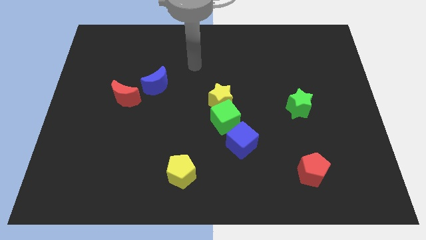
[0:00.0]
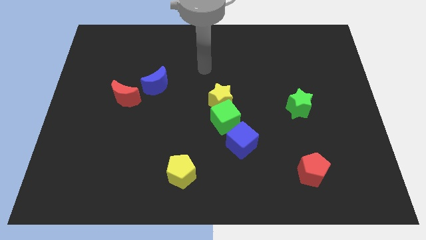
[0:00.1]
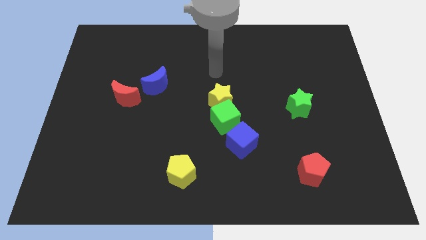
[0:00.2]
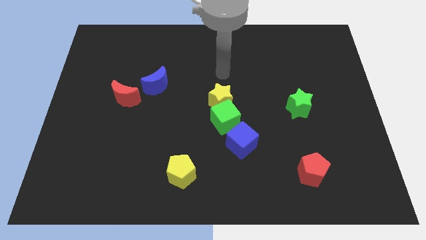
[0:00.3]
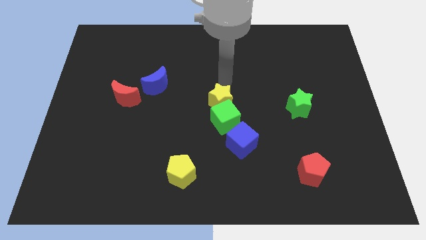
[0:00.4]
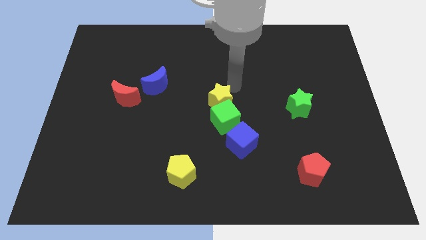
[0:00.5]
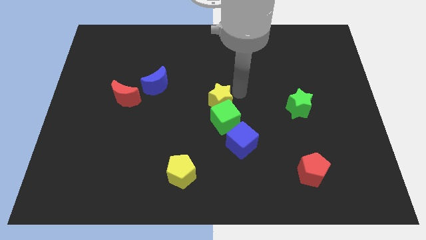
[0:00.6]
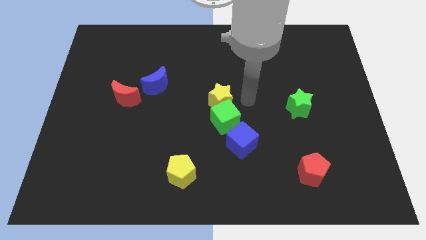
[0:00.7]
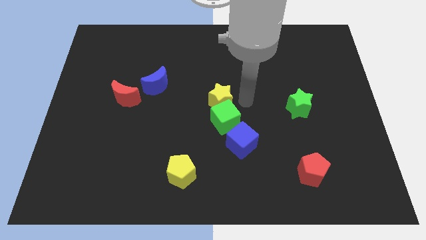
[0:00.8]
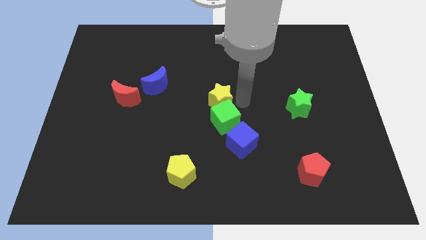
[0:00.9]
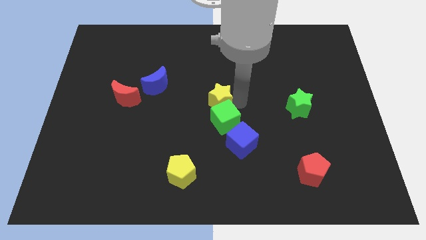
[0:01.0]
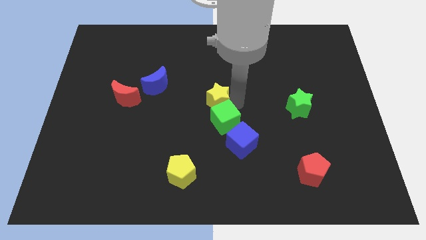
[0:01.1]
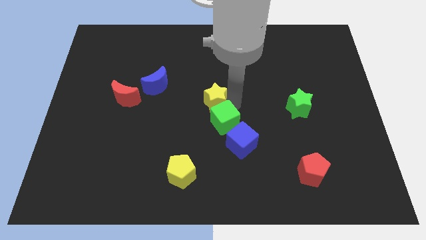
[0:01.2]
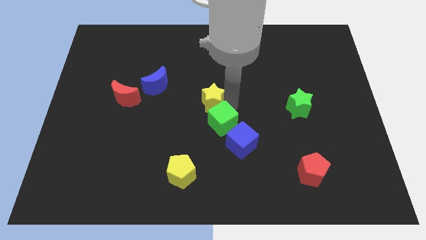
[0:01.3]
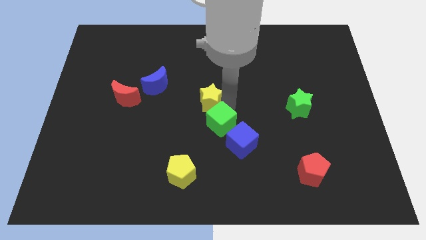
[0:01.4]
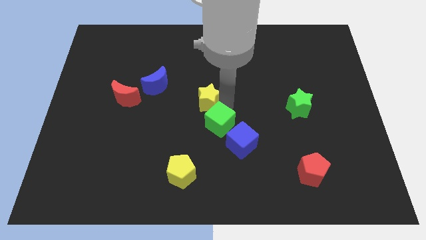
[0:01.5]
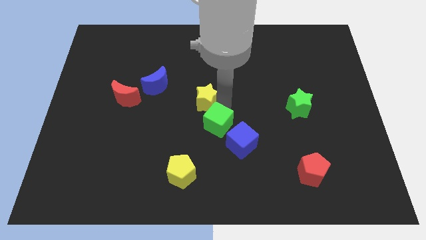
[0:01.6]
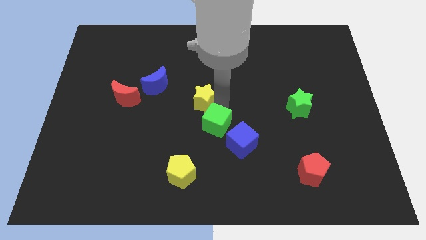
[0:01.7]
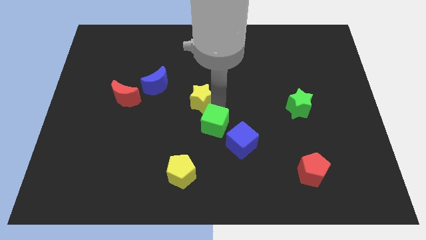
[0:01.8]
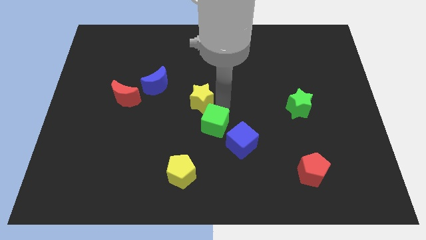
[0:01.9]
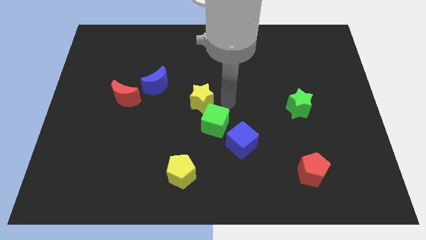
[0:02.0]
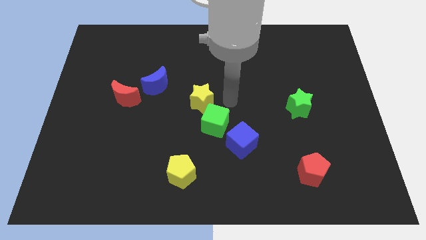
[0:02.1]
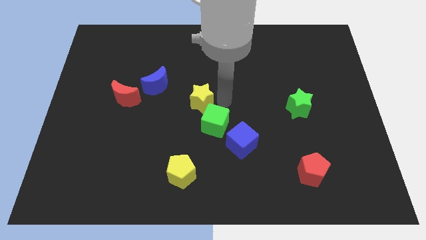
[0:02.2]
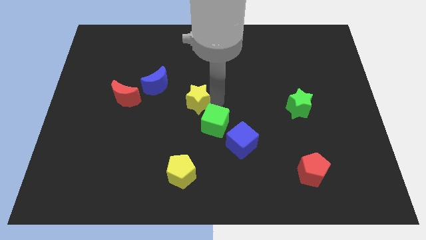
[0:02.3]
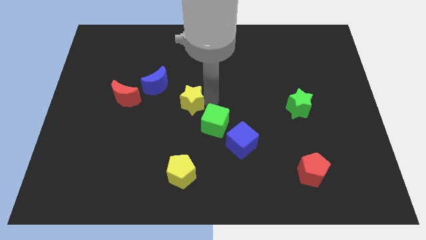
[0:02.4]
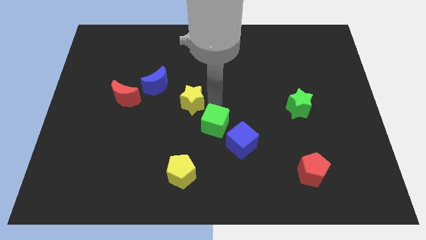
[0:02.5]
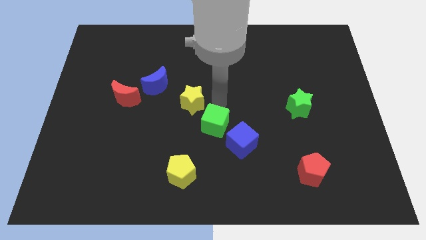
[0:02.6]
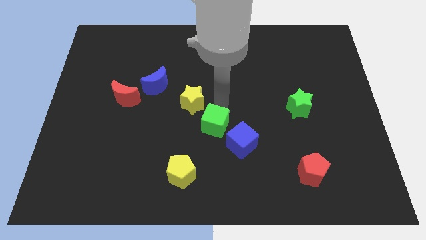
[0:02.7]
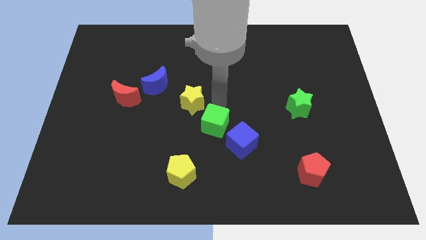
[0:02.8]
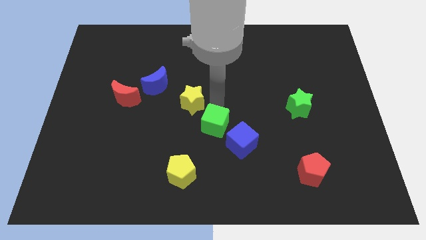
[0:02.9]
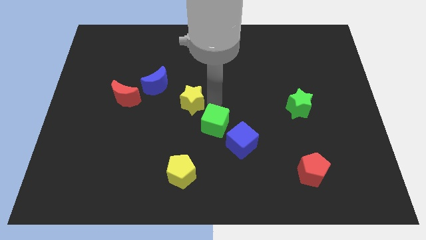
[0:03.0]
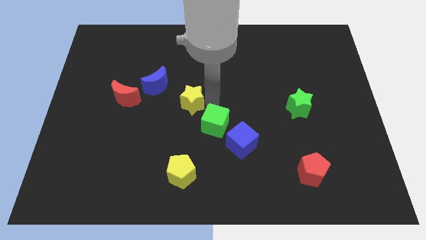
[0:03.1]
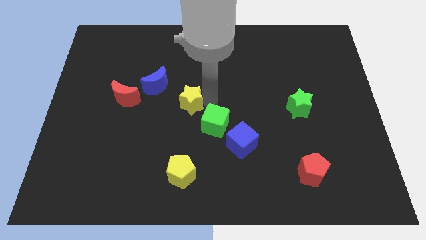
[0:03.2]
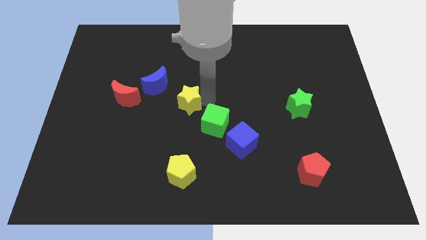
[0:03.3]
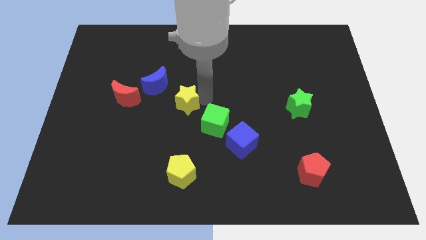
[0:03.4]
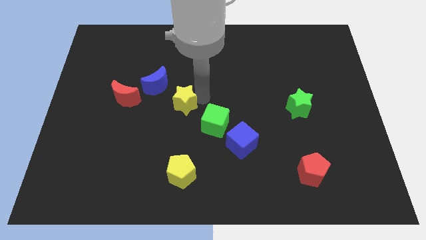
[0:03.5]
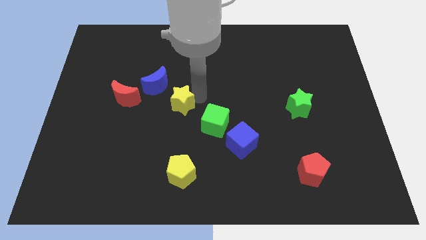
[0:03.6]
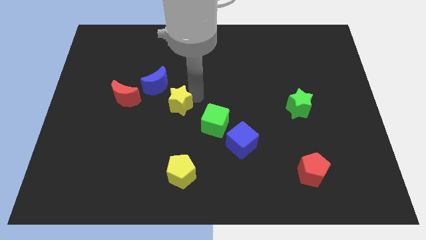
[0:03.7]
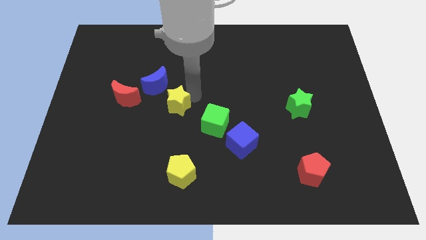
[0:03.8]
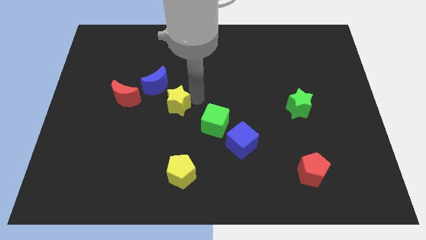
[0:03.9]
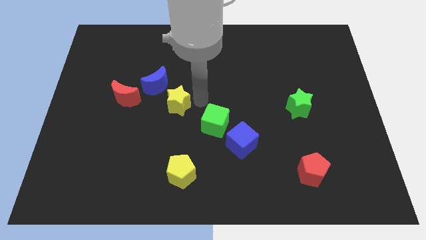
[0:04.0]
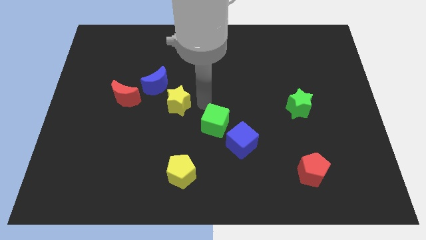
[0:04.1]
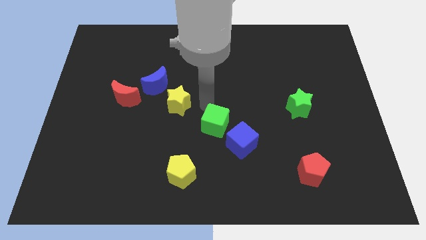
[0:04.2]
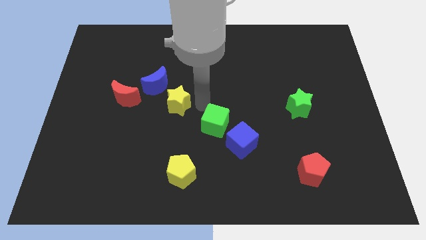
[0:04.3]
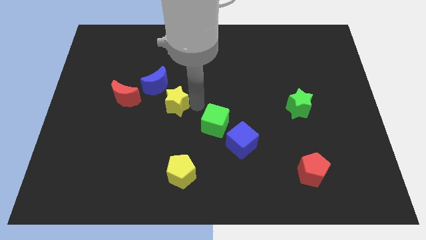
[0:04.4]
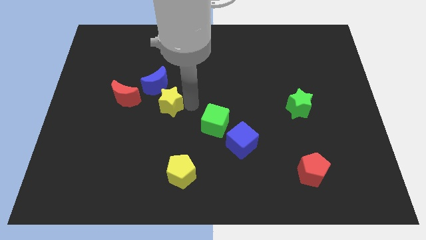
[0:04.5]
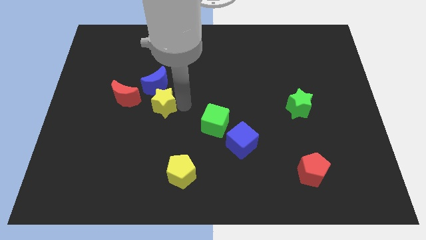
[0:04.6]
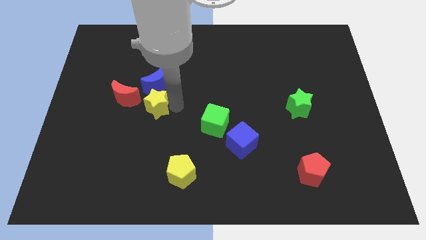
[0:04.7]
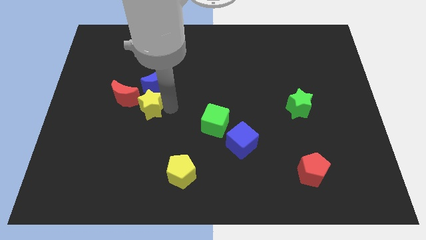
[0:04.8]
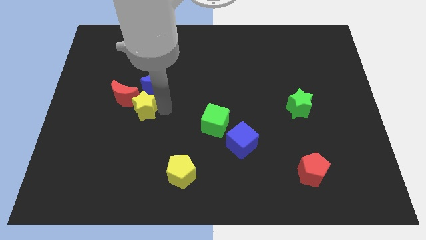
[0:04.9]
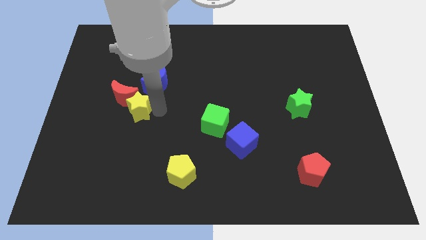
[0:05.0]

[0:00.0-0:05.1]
slide the yellow star to the red moon

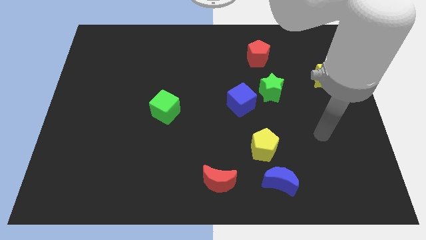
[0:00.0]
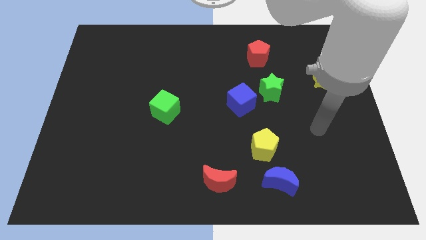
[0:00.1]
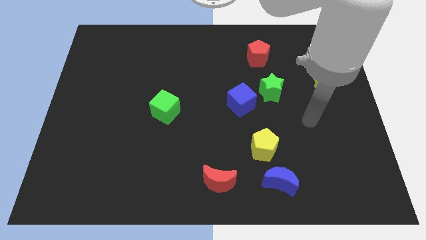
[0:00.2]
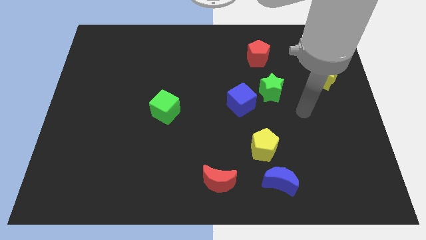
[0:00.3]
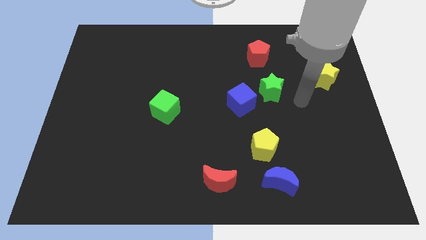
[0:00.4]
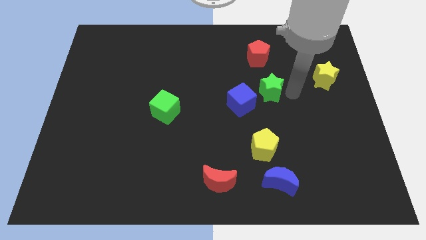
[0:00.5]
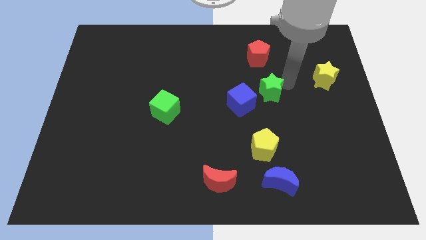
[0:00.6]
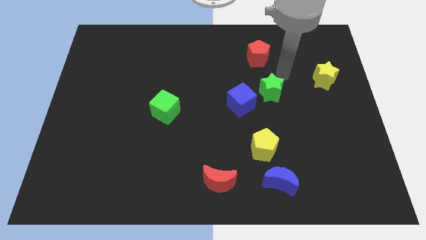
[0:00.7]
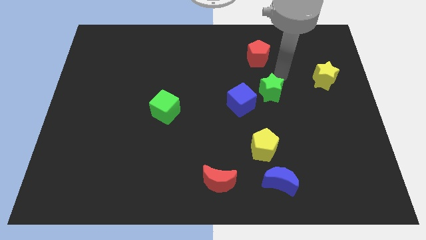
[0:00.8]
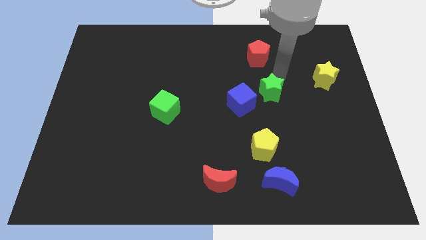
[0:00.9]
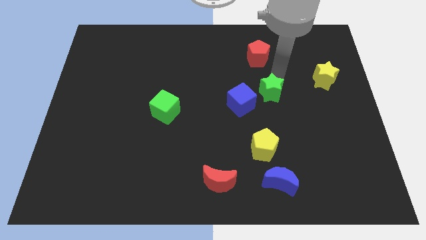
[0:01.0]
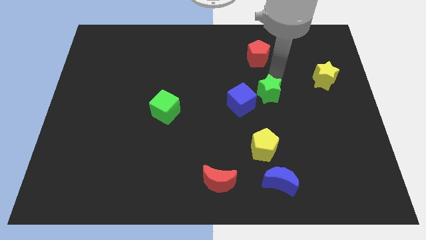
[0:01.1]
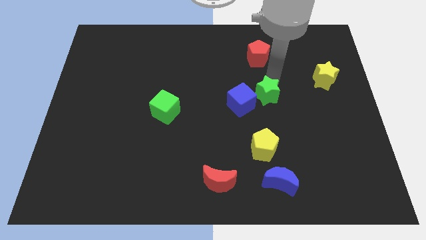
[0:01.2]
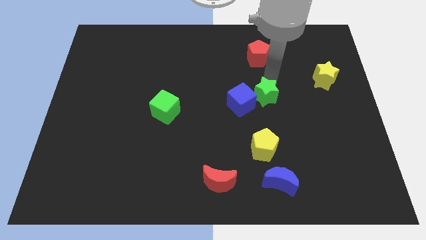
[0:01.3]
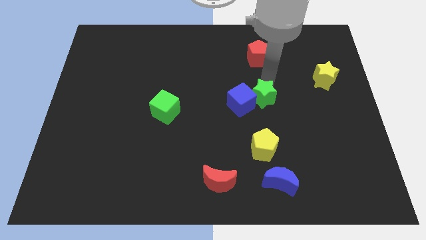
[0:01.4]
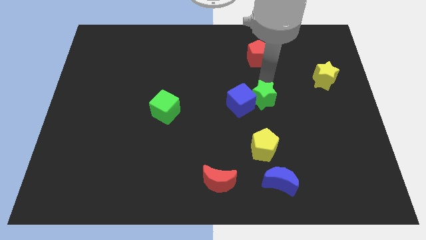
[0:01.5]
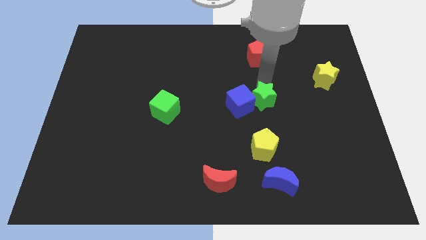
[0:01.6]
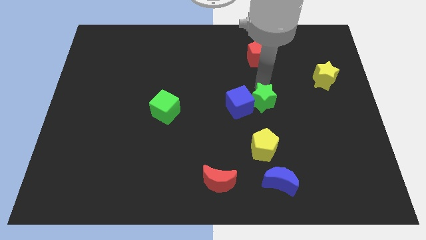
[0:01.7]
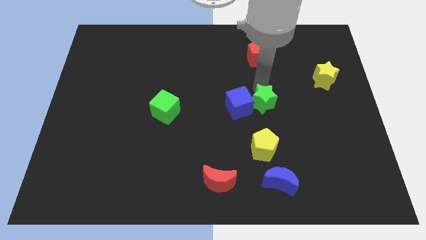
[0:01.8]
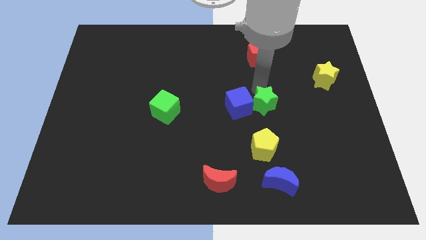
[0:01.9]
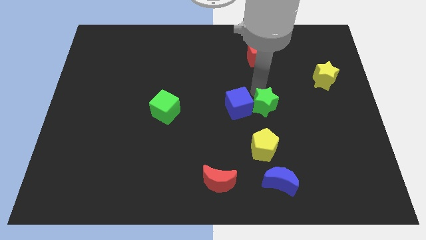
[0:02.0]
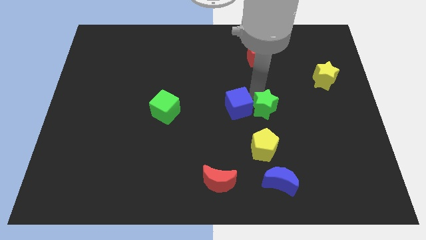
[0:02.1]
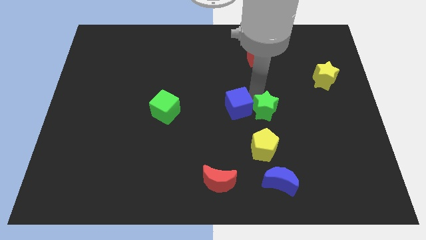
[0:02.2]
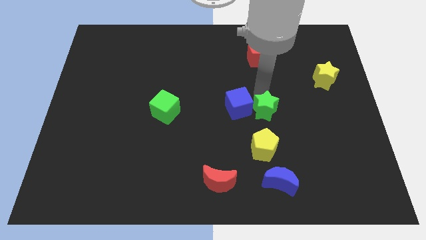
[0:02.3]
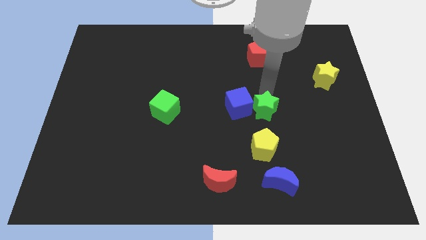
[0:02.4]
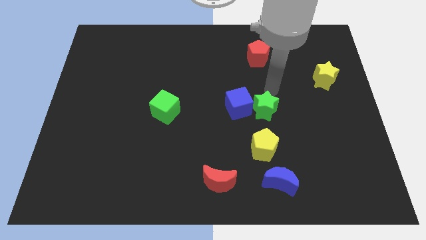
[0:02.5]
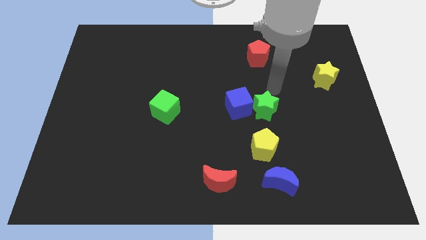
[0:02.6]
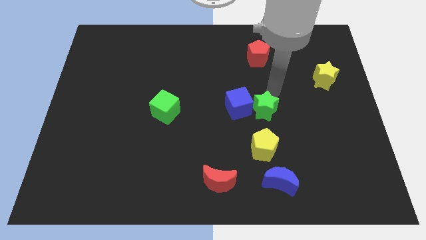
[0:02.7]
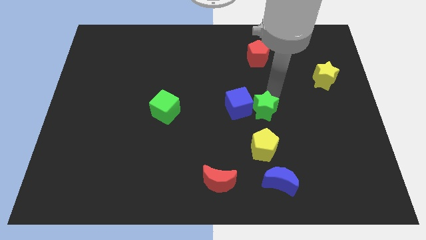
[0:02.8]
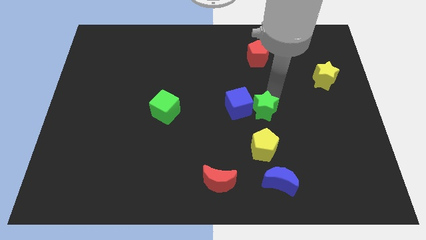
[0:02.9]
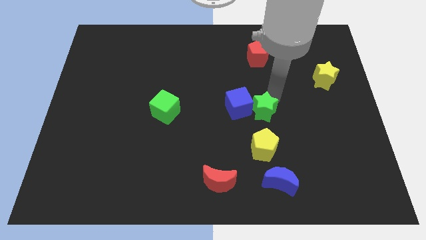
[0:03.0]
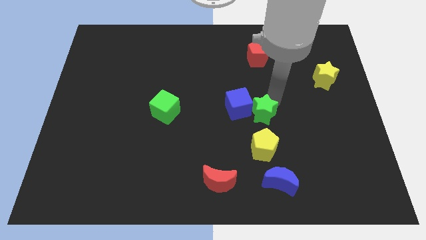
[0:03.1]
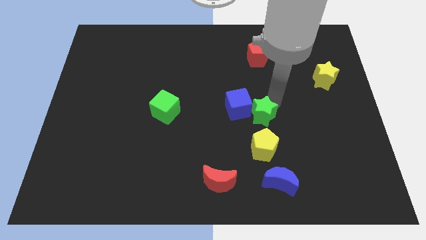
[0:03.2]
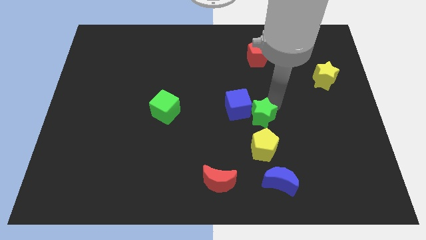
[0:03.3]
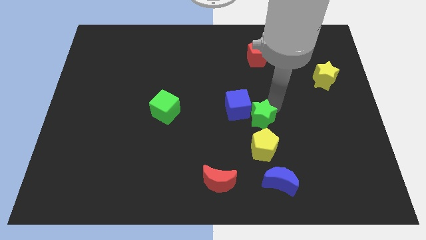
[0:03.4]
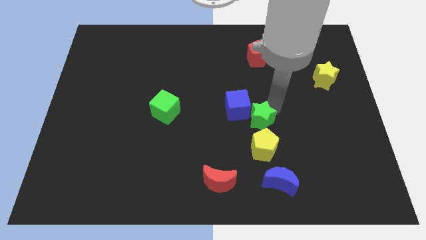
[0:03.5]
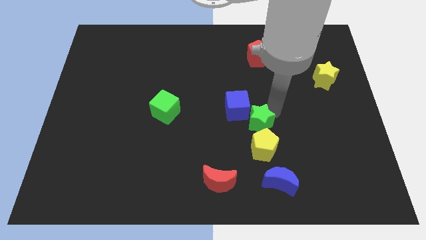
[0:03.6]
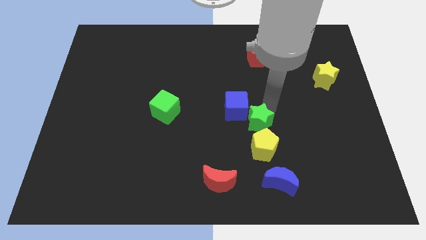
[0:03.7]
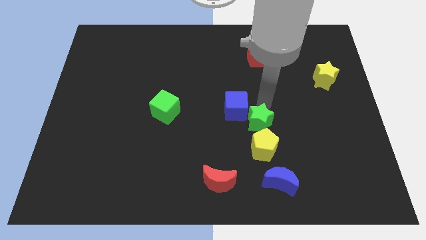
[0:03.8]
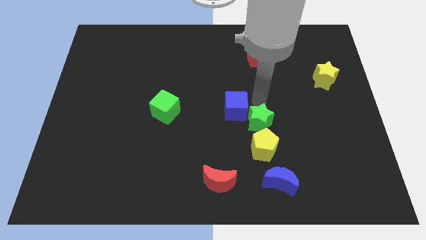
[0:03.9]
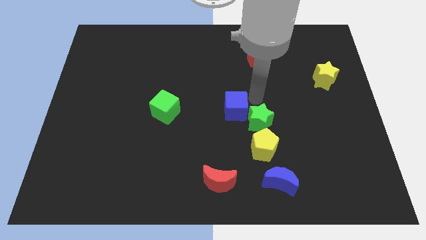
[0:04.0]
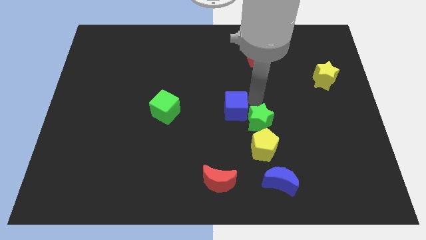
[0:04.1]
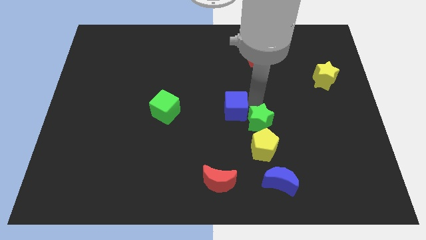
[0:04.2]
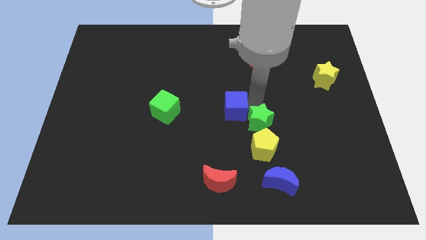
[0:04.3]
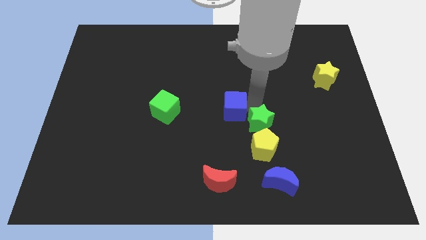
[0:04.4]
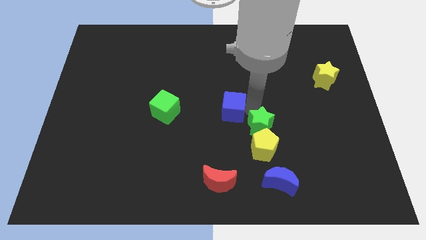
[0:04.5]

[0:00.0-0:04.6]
put the green star next to the yellow pentagon
